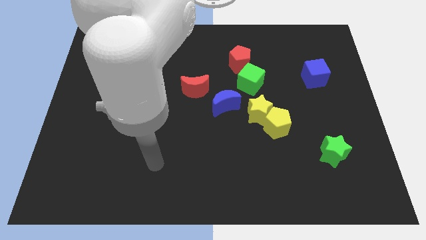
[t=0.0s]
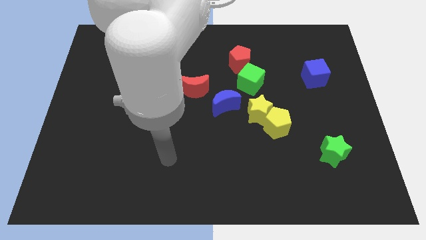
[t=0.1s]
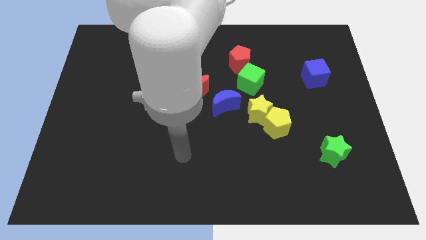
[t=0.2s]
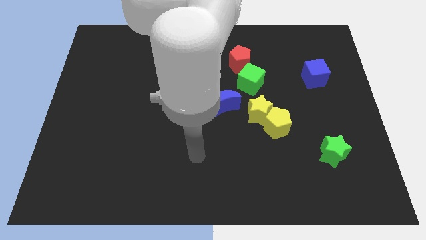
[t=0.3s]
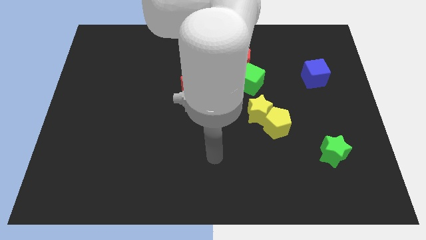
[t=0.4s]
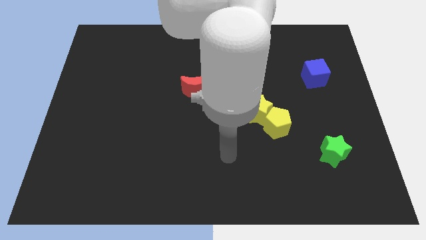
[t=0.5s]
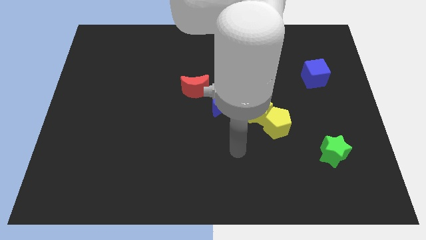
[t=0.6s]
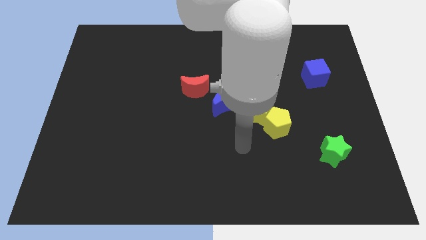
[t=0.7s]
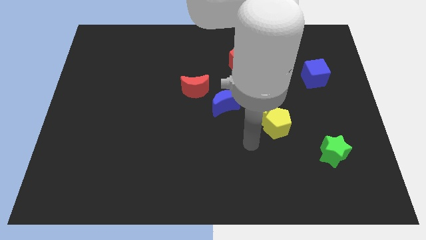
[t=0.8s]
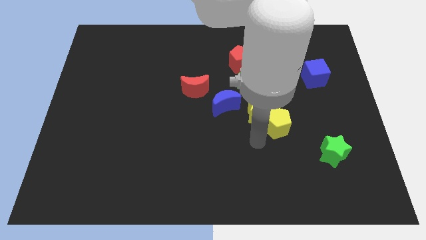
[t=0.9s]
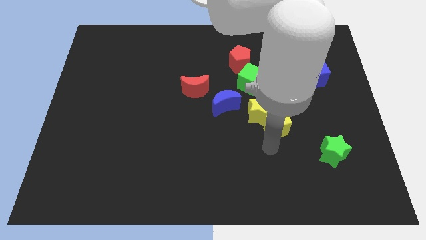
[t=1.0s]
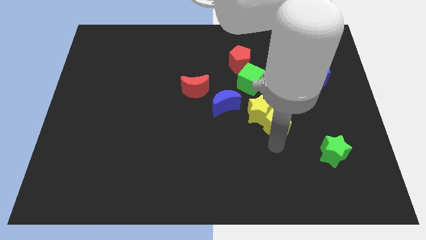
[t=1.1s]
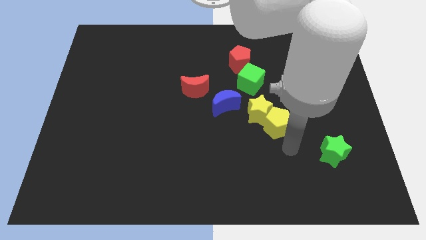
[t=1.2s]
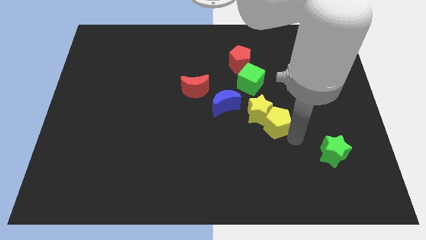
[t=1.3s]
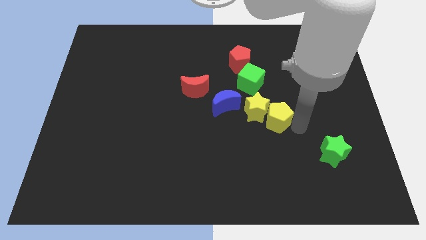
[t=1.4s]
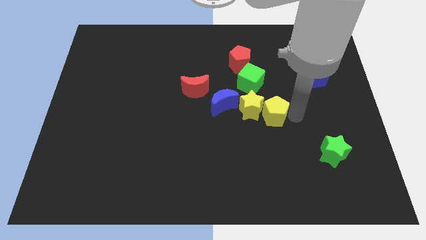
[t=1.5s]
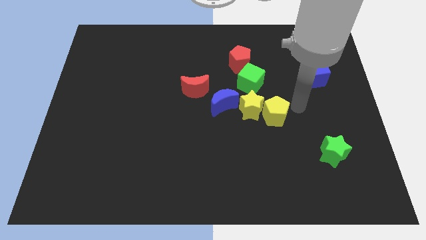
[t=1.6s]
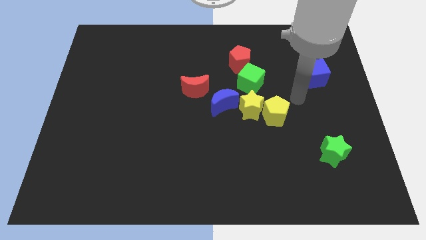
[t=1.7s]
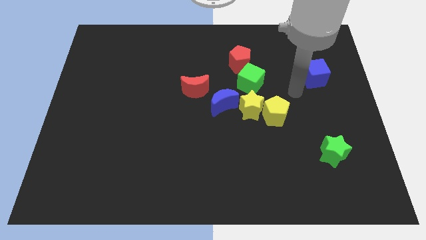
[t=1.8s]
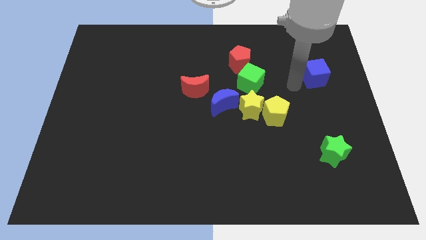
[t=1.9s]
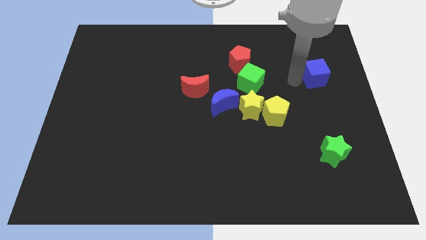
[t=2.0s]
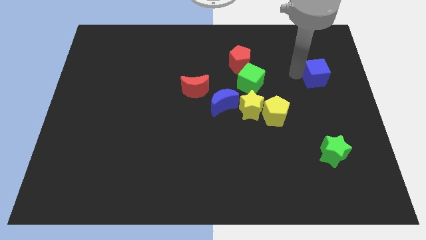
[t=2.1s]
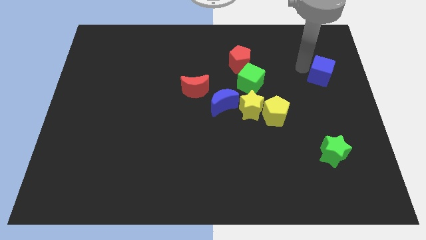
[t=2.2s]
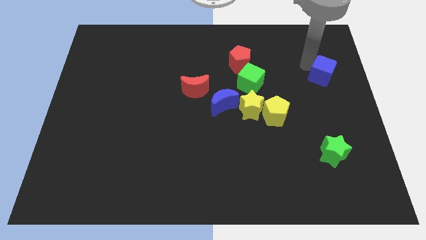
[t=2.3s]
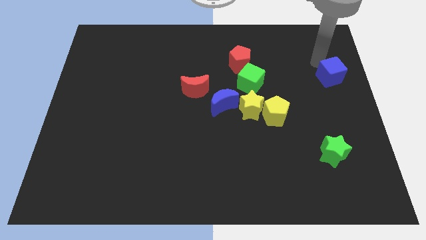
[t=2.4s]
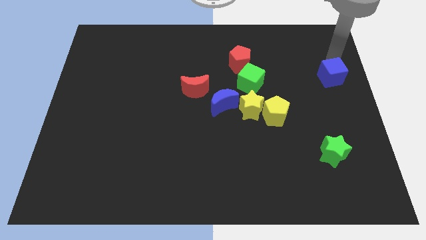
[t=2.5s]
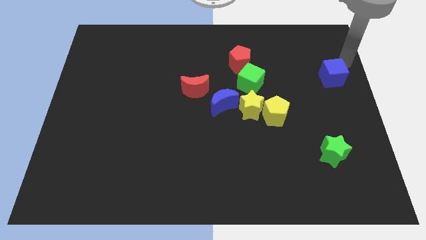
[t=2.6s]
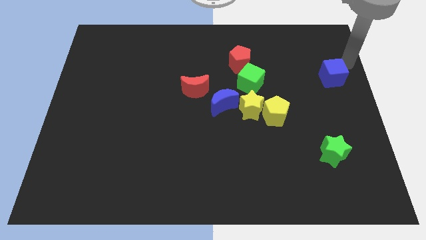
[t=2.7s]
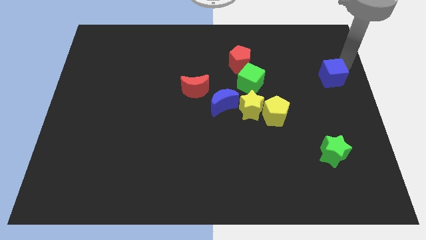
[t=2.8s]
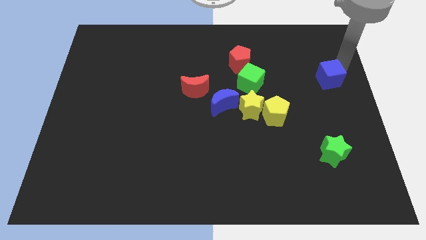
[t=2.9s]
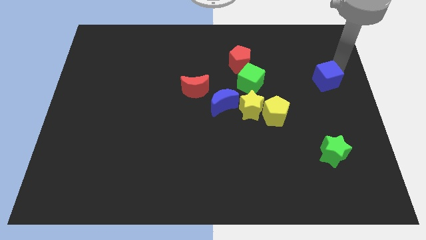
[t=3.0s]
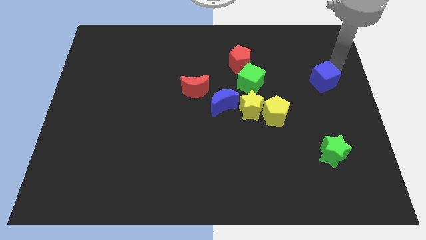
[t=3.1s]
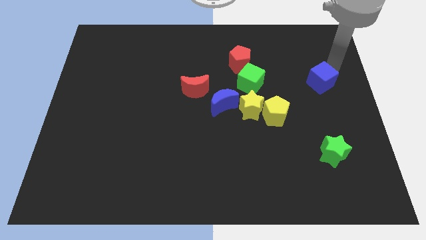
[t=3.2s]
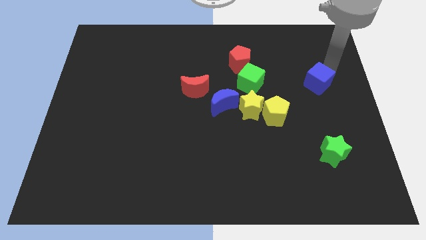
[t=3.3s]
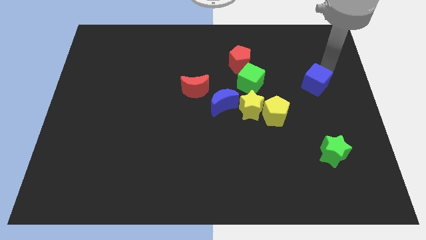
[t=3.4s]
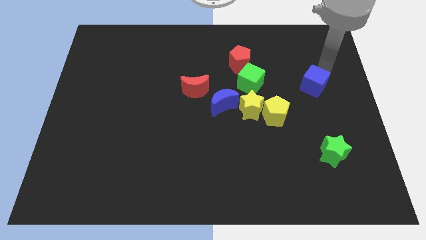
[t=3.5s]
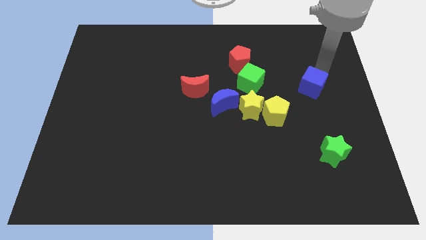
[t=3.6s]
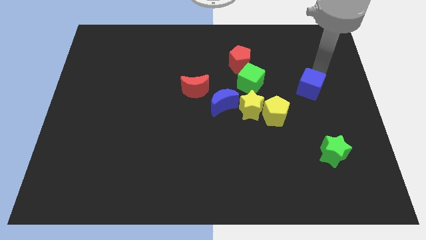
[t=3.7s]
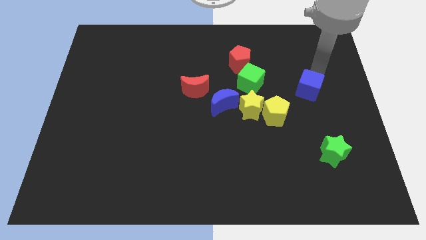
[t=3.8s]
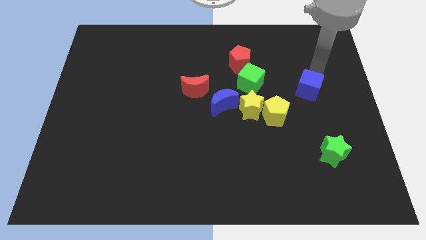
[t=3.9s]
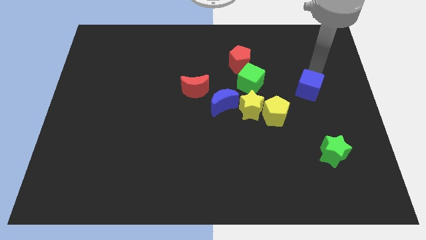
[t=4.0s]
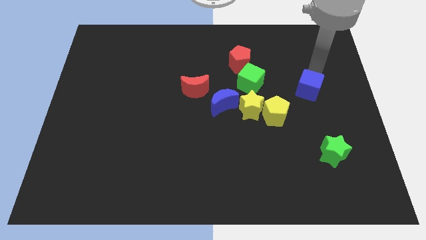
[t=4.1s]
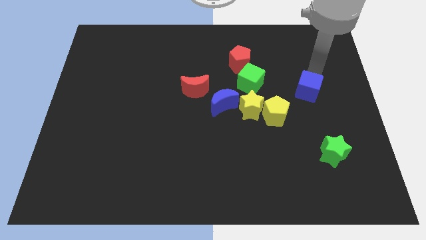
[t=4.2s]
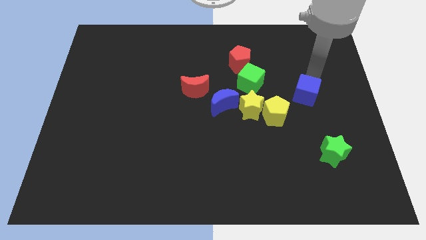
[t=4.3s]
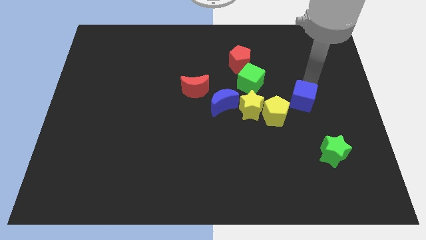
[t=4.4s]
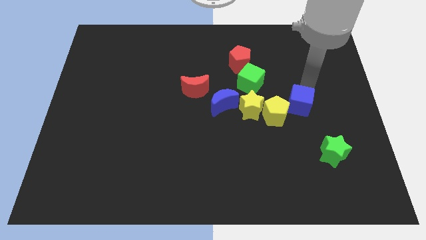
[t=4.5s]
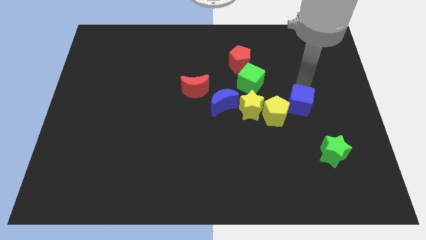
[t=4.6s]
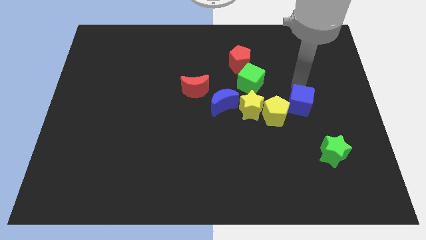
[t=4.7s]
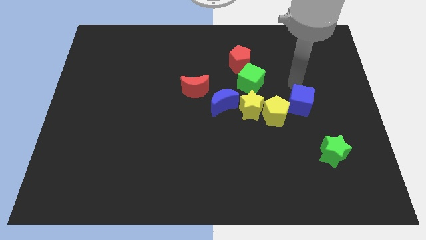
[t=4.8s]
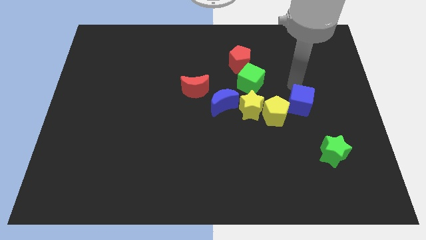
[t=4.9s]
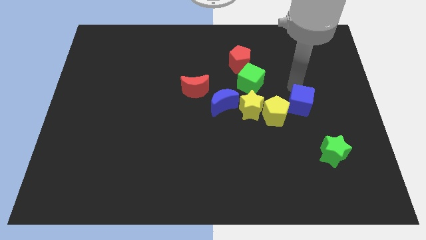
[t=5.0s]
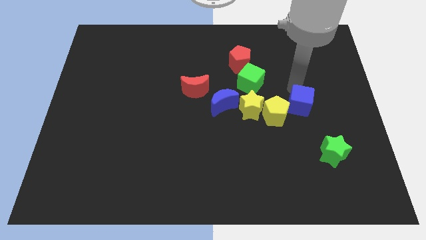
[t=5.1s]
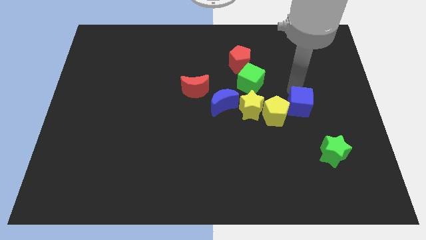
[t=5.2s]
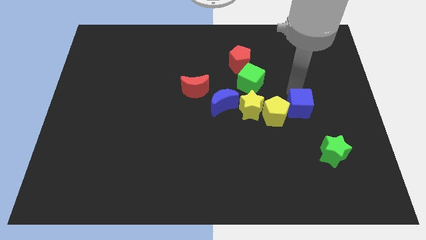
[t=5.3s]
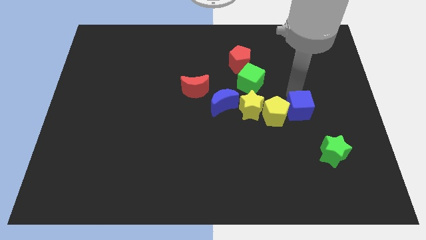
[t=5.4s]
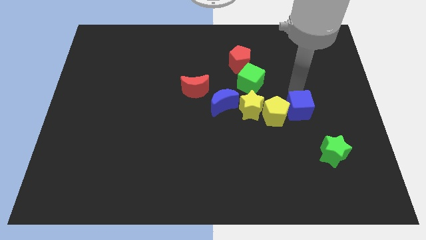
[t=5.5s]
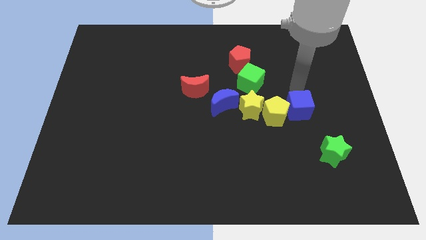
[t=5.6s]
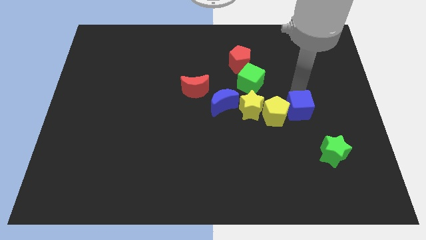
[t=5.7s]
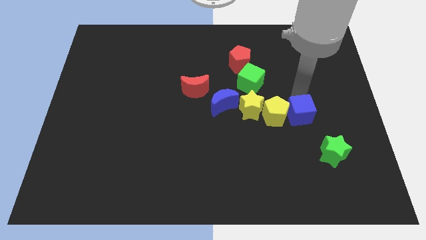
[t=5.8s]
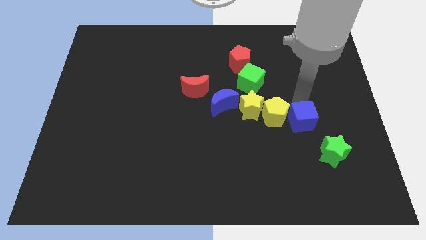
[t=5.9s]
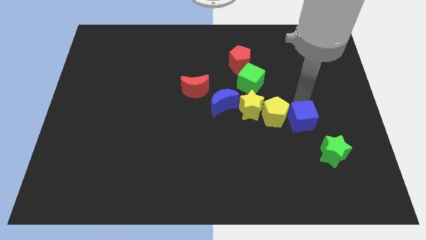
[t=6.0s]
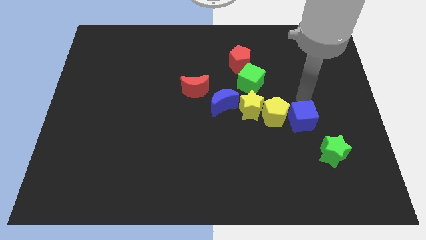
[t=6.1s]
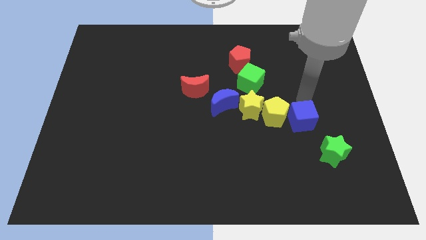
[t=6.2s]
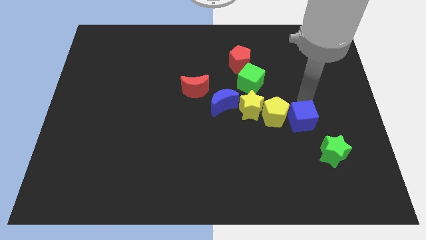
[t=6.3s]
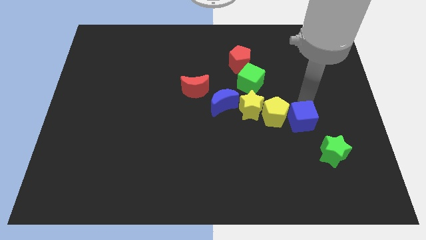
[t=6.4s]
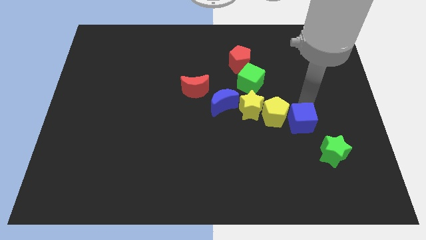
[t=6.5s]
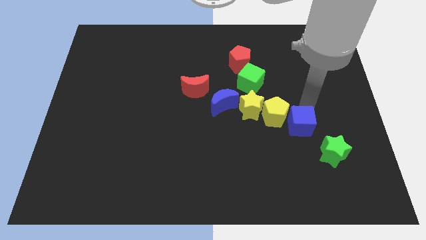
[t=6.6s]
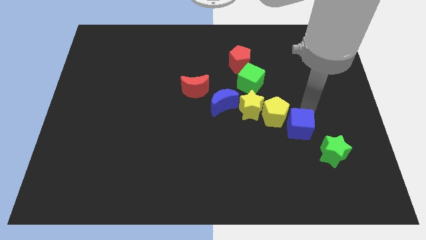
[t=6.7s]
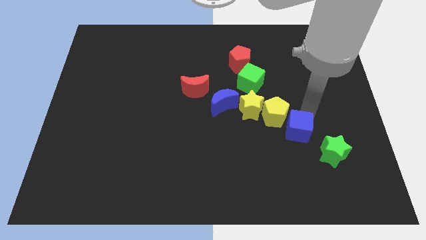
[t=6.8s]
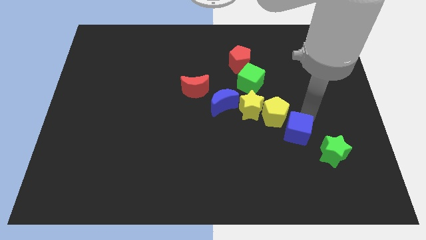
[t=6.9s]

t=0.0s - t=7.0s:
slide the blue cube to the bottom side of the yellow pentagon
